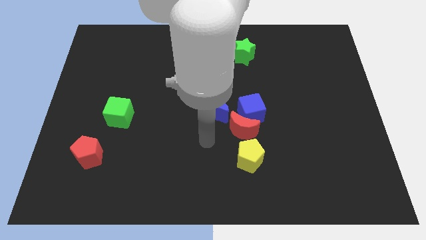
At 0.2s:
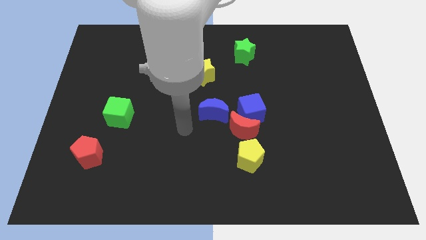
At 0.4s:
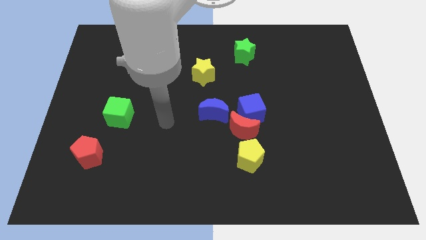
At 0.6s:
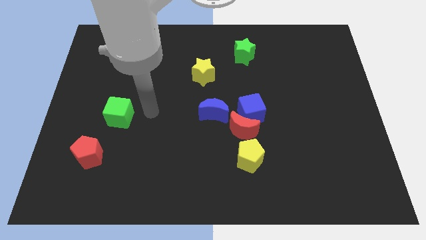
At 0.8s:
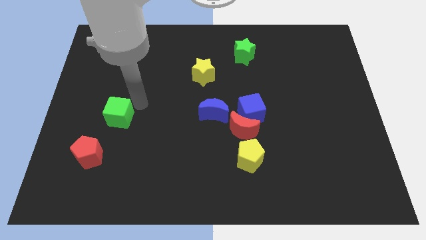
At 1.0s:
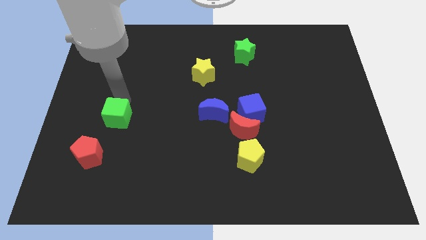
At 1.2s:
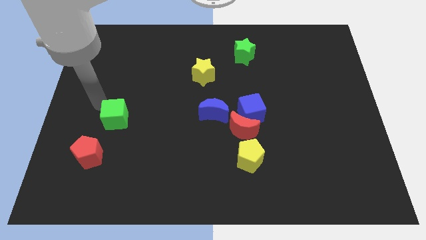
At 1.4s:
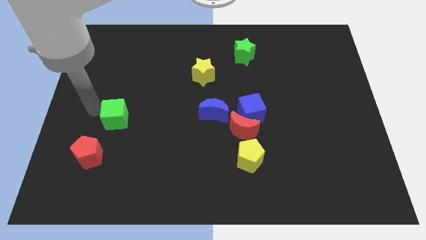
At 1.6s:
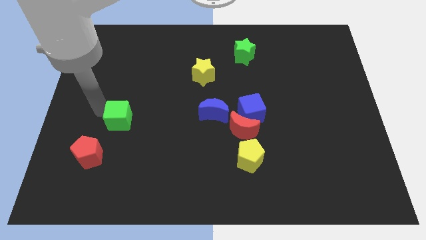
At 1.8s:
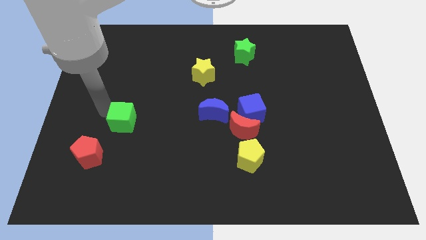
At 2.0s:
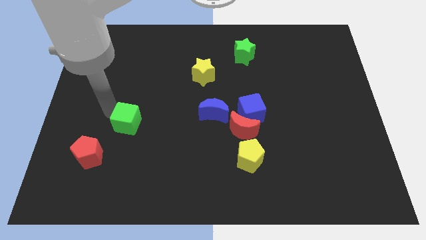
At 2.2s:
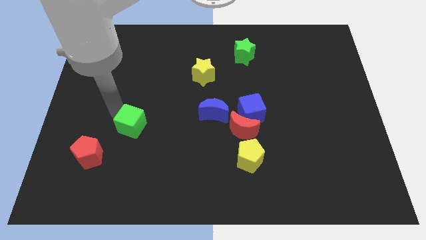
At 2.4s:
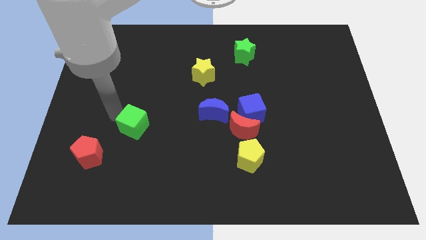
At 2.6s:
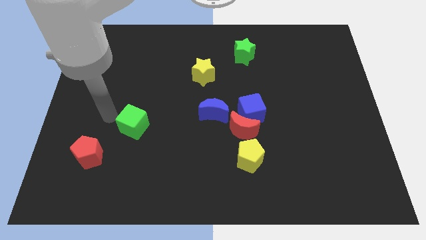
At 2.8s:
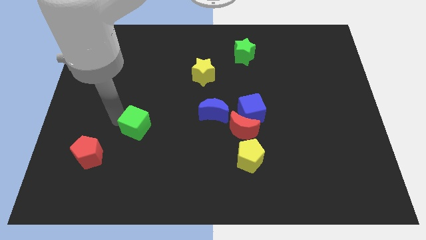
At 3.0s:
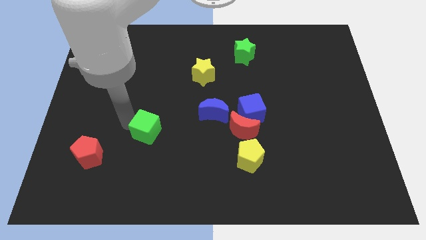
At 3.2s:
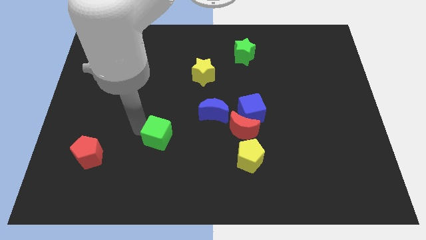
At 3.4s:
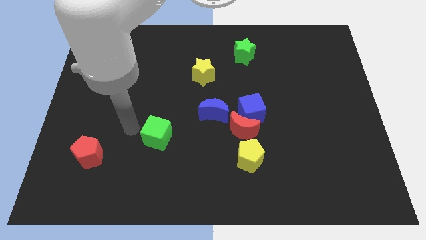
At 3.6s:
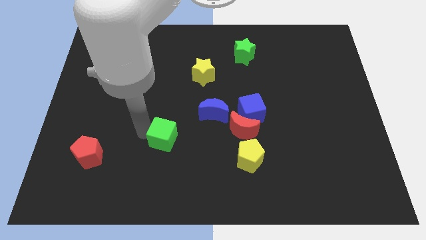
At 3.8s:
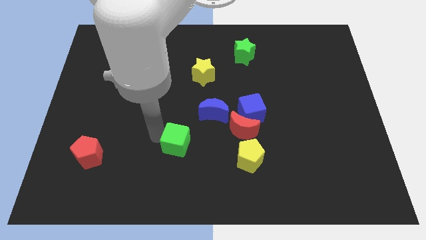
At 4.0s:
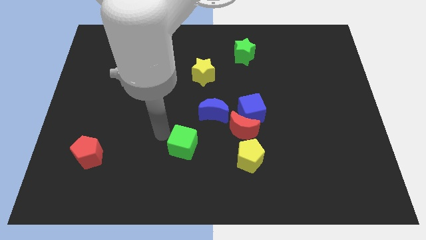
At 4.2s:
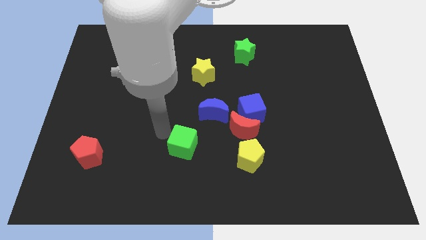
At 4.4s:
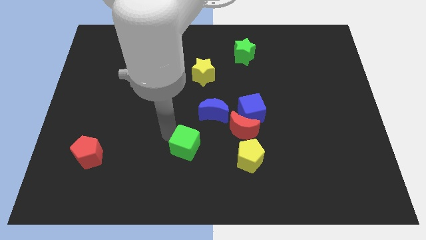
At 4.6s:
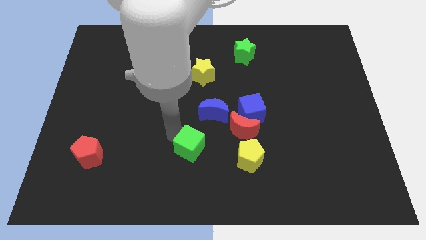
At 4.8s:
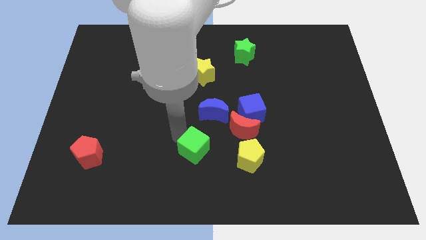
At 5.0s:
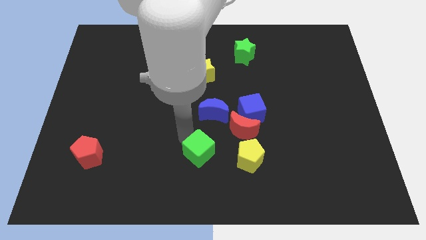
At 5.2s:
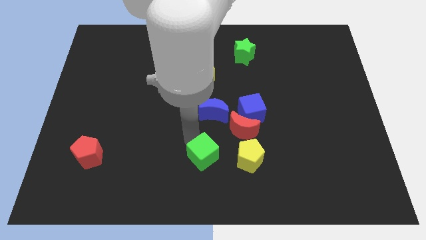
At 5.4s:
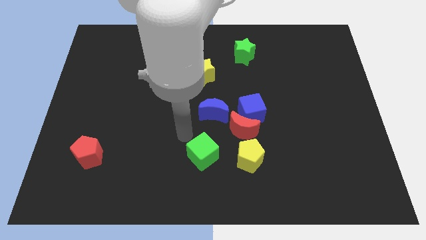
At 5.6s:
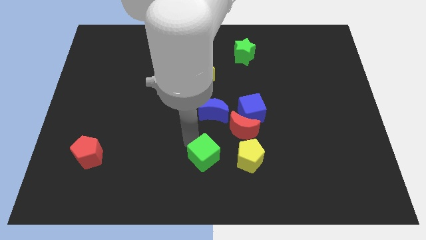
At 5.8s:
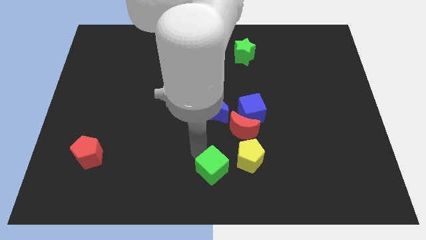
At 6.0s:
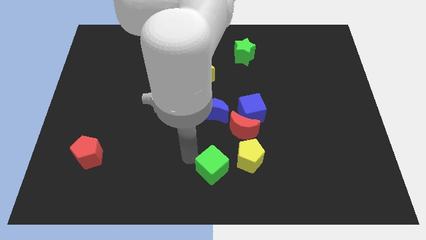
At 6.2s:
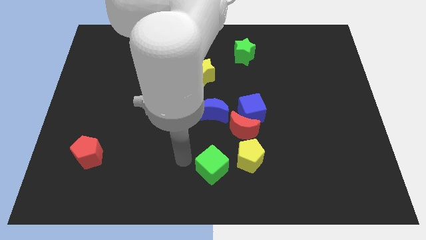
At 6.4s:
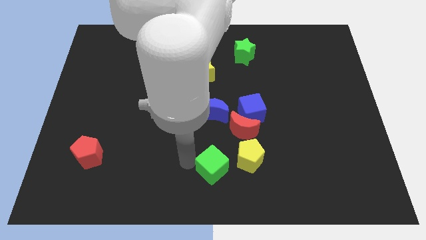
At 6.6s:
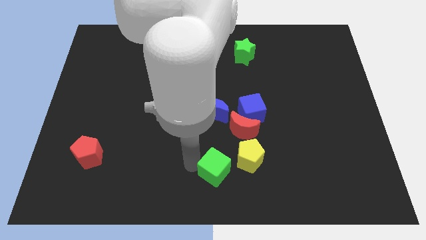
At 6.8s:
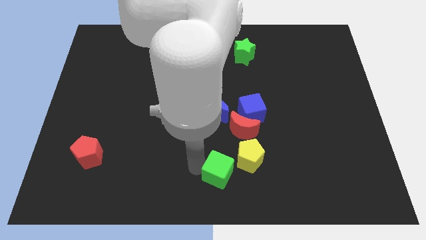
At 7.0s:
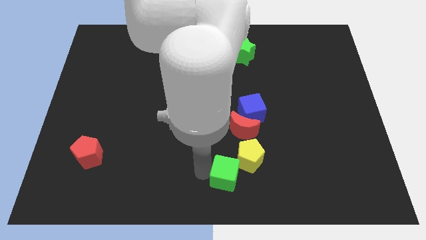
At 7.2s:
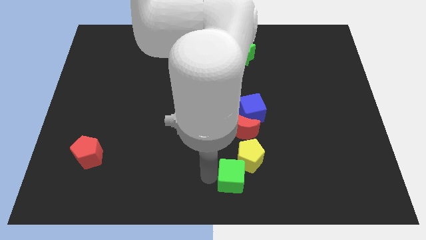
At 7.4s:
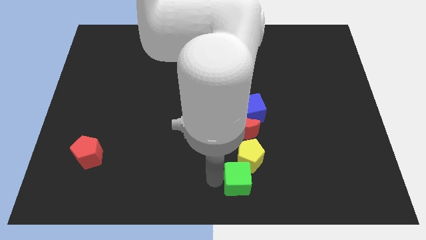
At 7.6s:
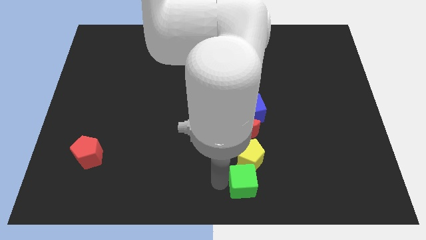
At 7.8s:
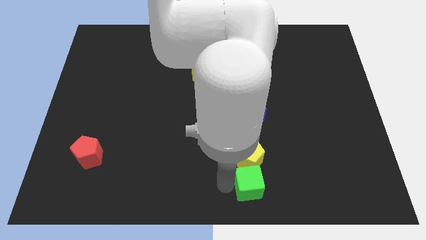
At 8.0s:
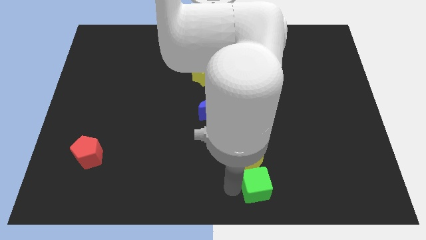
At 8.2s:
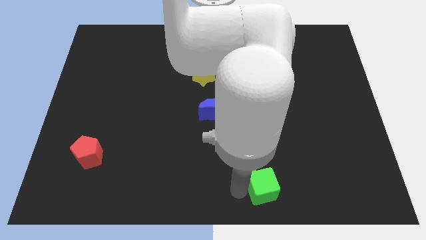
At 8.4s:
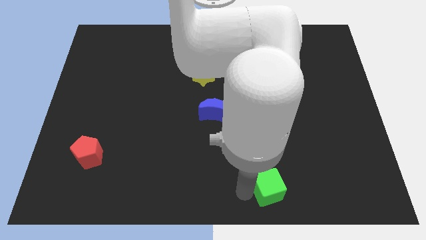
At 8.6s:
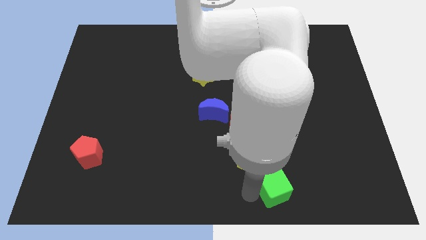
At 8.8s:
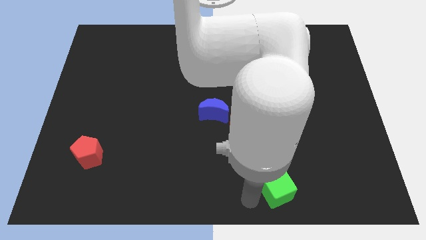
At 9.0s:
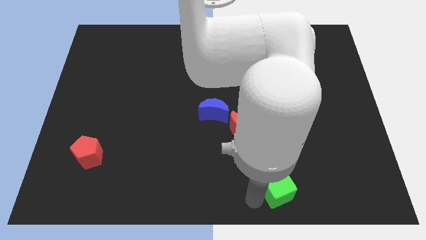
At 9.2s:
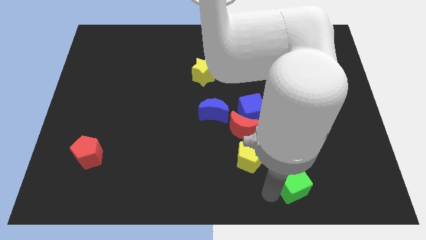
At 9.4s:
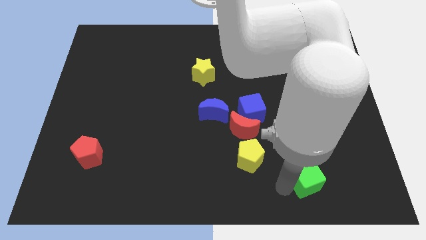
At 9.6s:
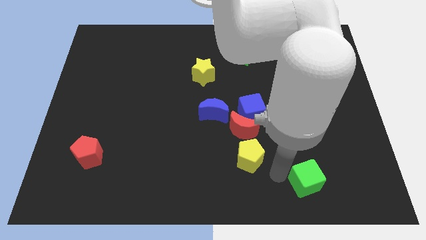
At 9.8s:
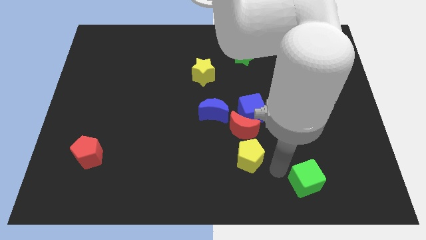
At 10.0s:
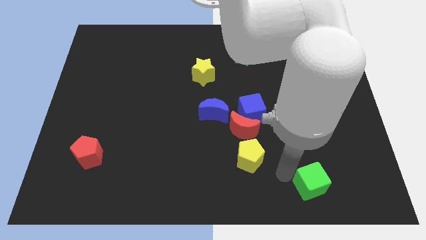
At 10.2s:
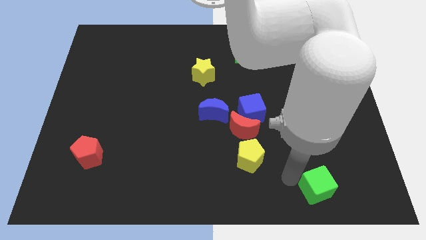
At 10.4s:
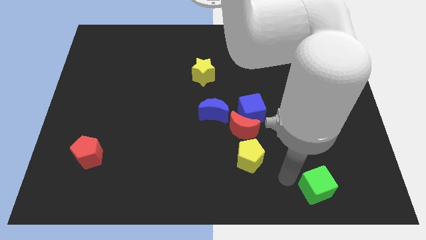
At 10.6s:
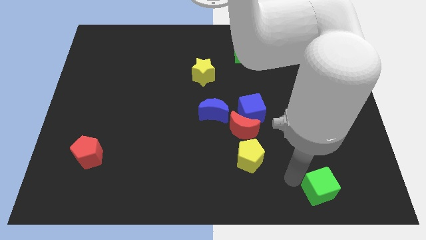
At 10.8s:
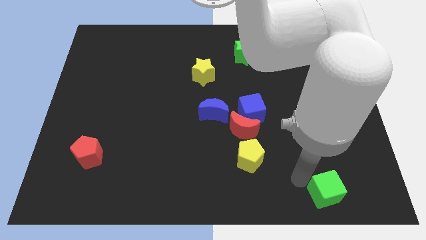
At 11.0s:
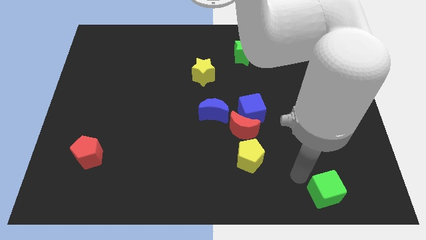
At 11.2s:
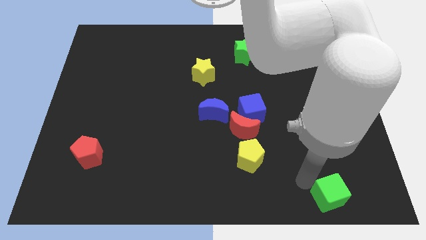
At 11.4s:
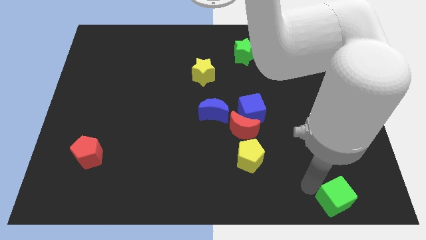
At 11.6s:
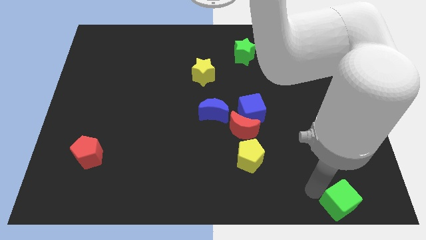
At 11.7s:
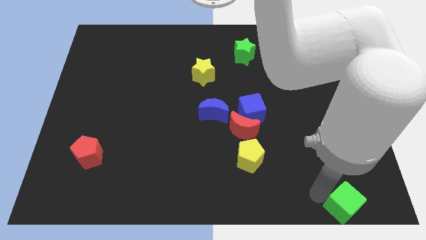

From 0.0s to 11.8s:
slide the green cube to the bottom right of the board

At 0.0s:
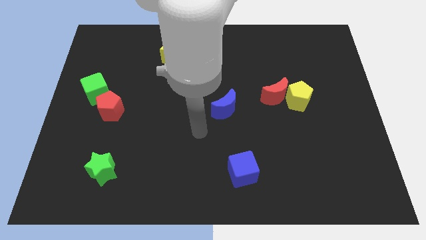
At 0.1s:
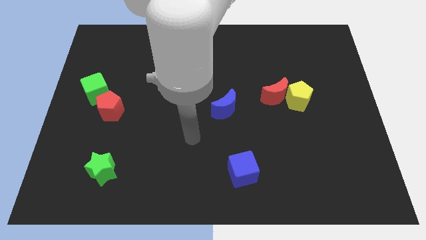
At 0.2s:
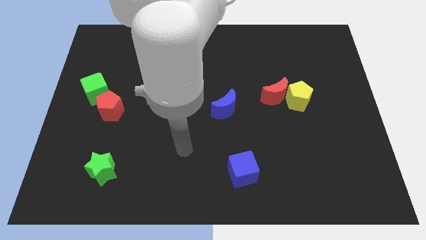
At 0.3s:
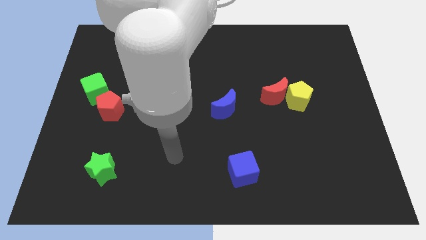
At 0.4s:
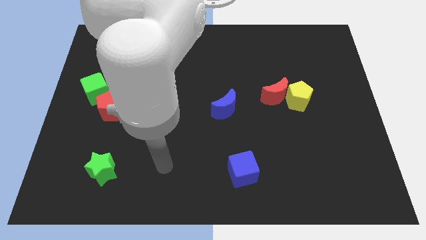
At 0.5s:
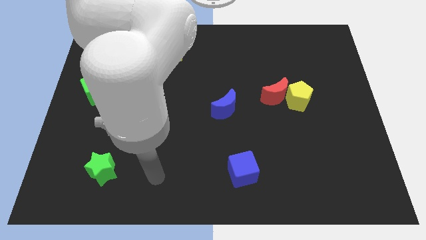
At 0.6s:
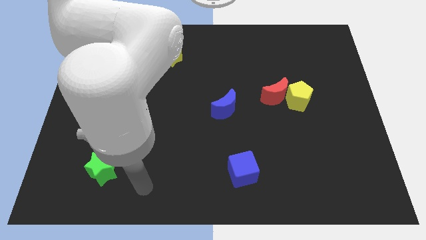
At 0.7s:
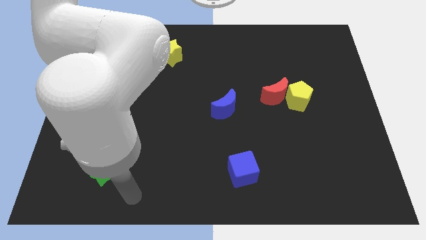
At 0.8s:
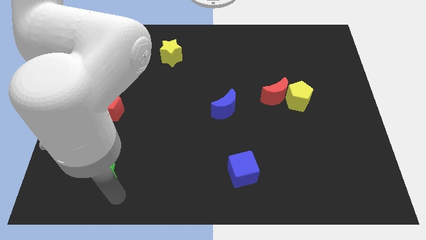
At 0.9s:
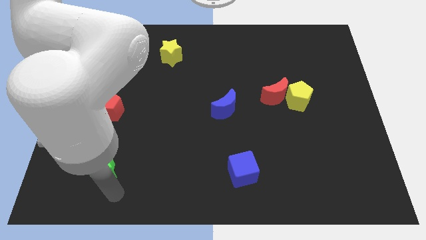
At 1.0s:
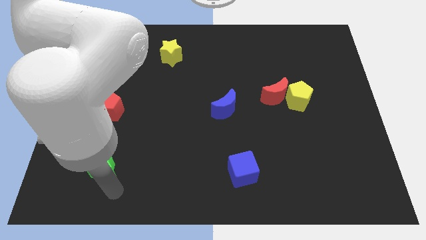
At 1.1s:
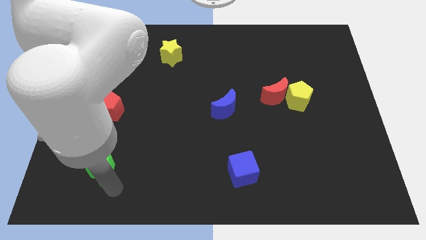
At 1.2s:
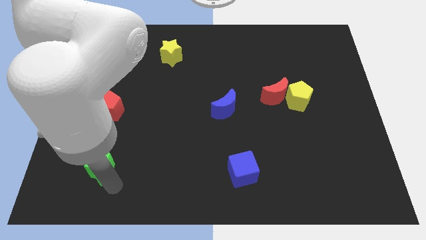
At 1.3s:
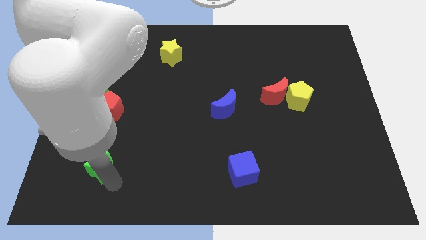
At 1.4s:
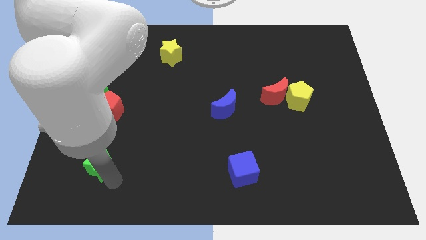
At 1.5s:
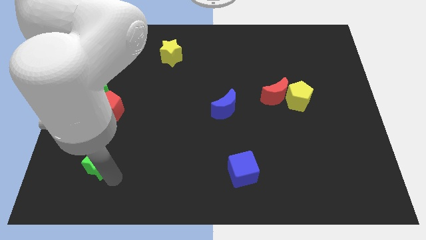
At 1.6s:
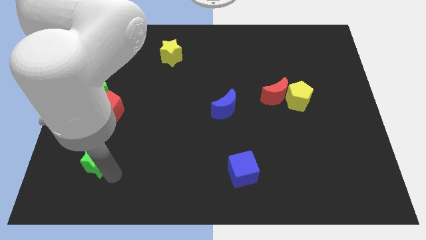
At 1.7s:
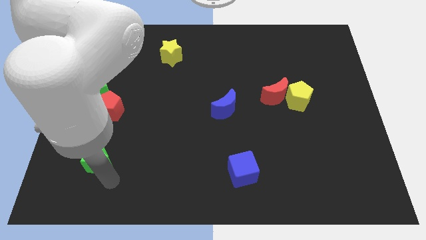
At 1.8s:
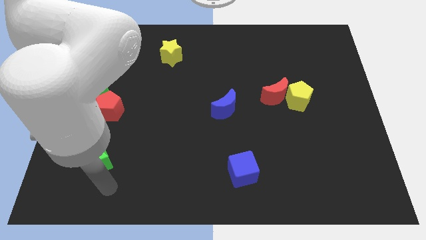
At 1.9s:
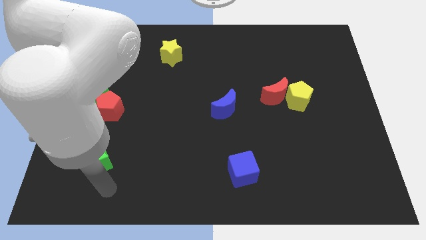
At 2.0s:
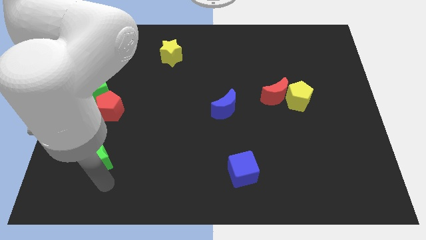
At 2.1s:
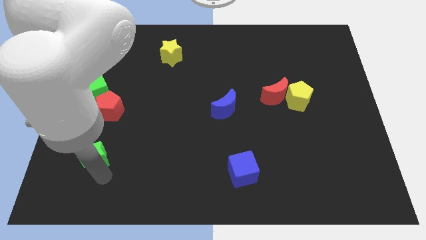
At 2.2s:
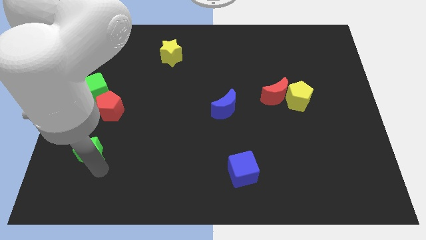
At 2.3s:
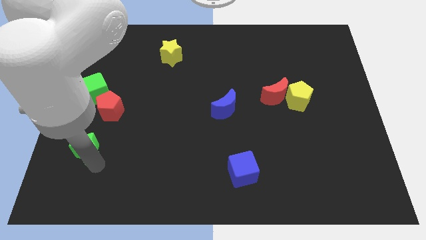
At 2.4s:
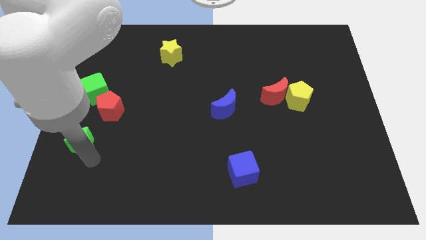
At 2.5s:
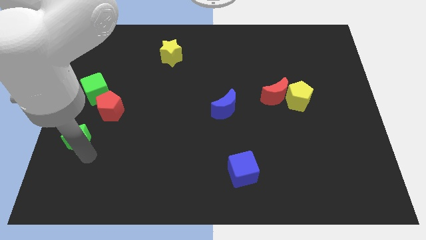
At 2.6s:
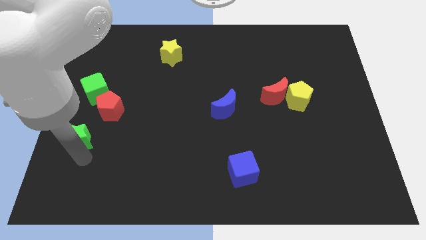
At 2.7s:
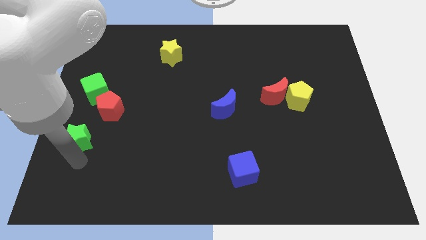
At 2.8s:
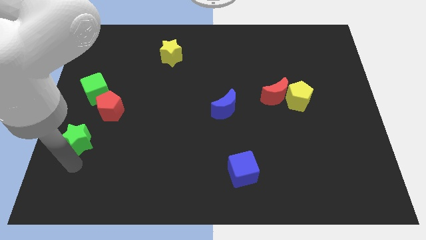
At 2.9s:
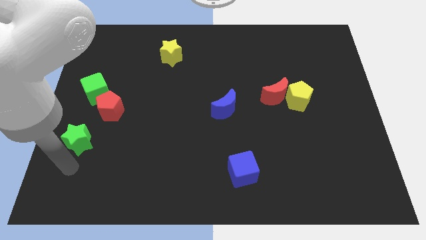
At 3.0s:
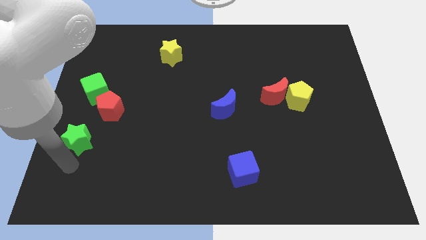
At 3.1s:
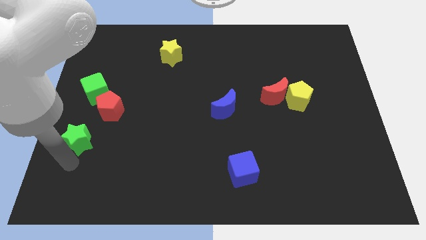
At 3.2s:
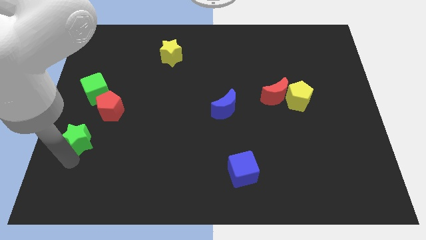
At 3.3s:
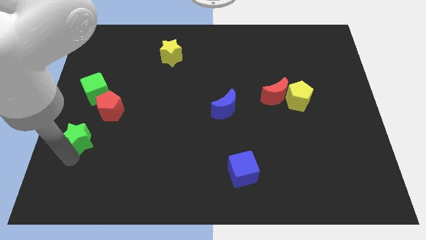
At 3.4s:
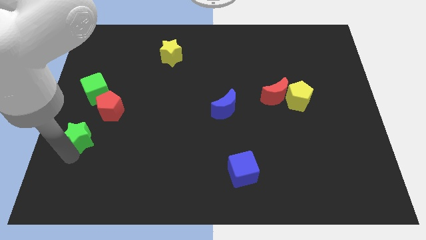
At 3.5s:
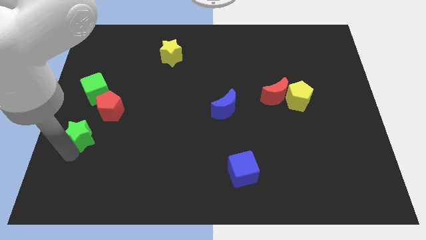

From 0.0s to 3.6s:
push the green star to the center left
